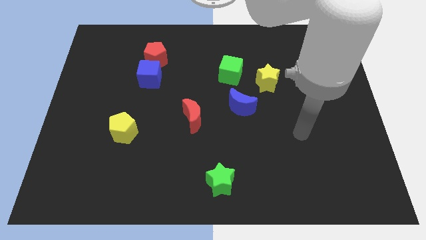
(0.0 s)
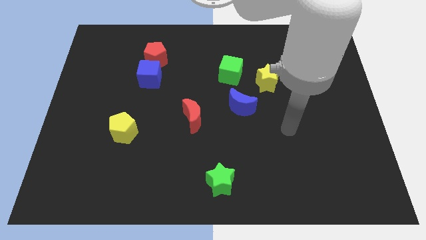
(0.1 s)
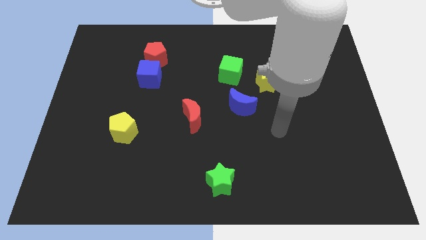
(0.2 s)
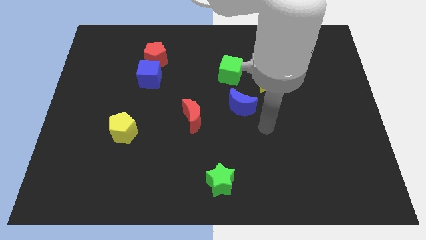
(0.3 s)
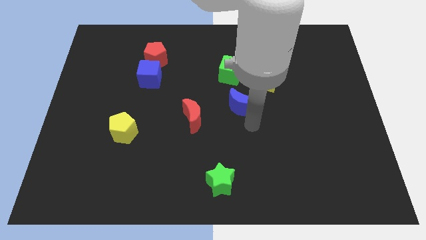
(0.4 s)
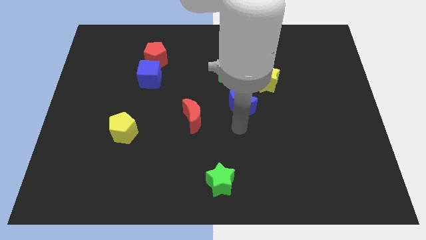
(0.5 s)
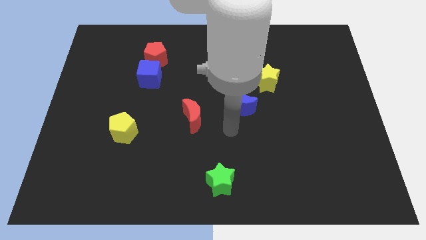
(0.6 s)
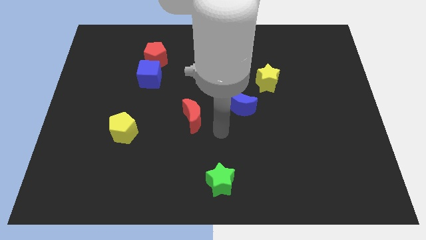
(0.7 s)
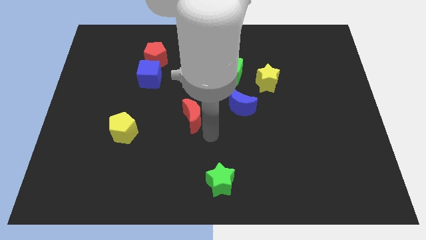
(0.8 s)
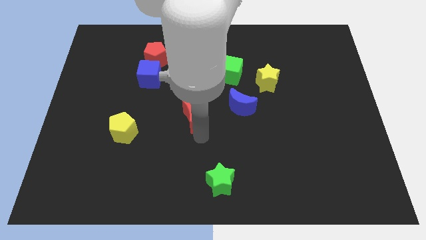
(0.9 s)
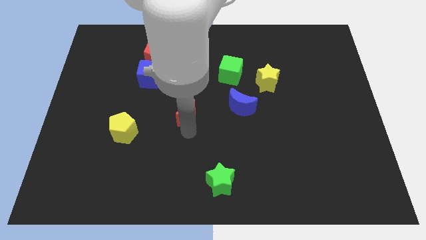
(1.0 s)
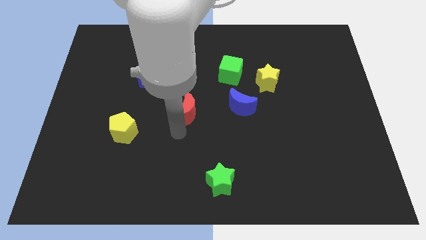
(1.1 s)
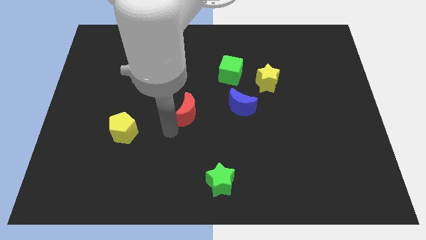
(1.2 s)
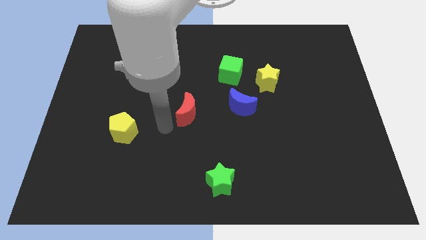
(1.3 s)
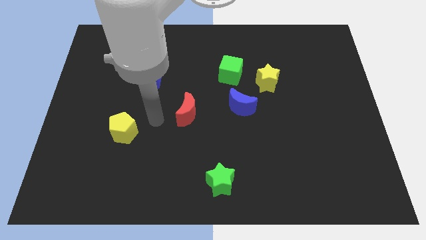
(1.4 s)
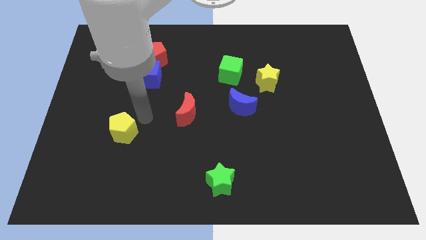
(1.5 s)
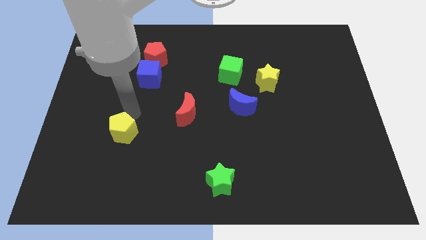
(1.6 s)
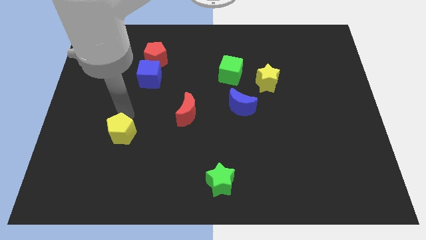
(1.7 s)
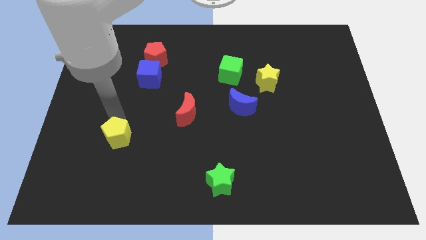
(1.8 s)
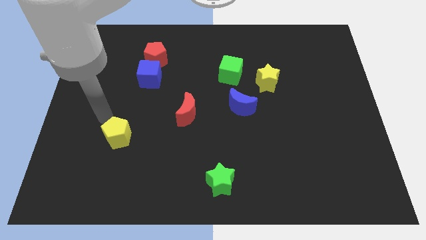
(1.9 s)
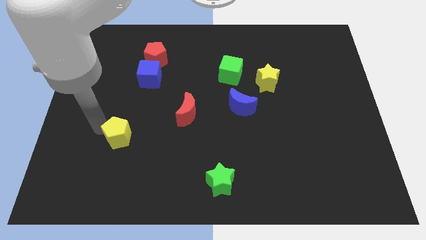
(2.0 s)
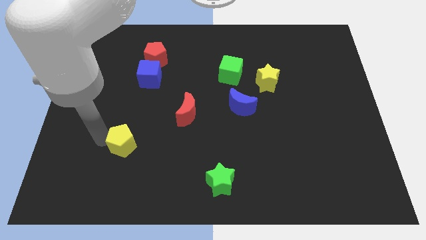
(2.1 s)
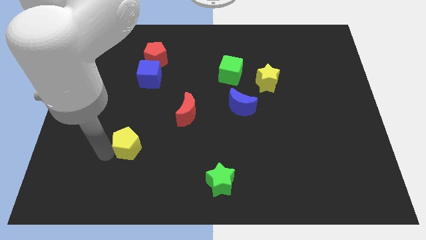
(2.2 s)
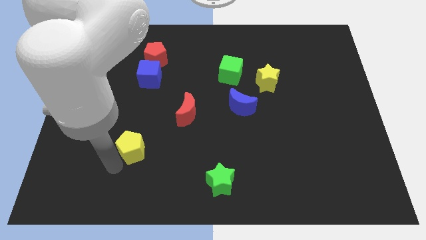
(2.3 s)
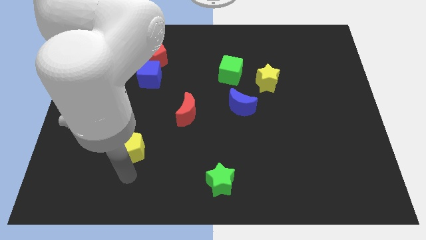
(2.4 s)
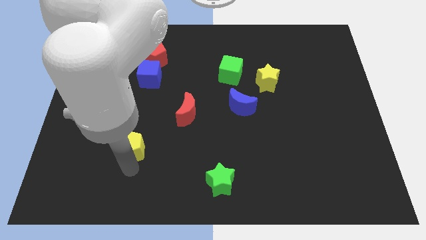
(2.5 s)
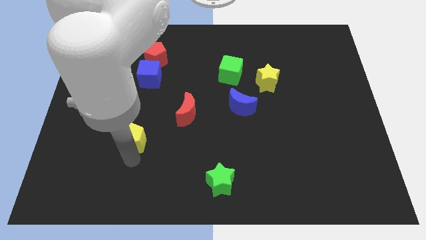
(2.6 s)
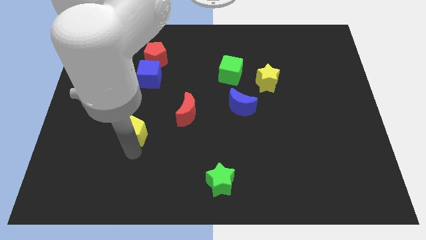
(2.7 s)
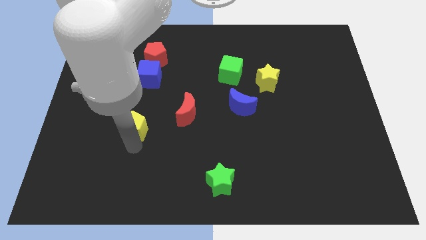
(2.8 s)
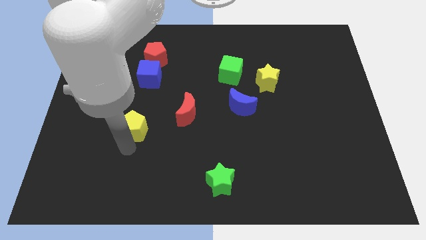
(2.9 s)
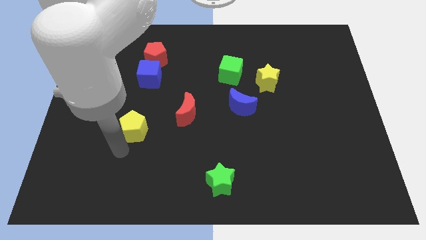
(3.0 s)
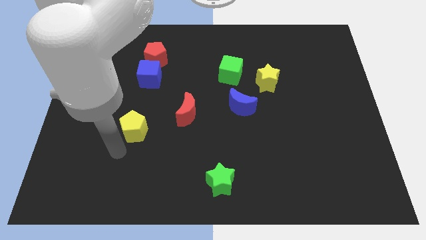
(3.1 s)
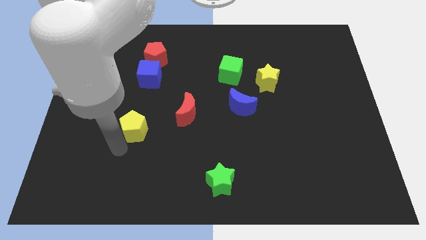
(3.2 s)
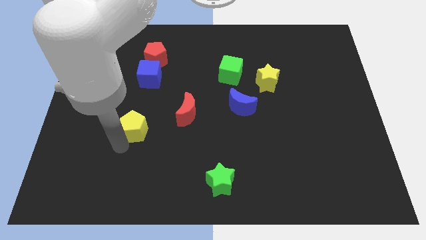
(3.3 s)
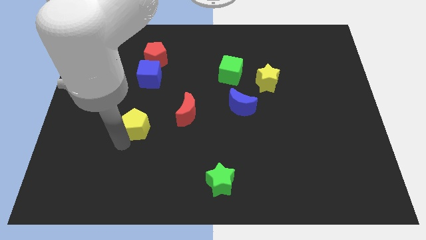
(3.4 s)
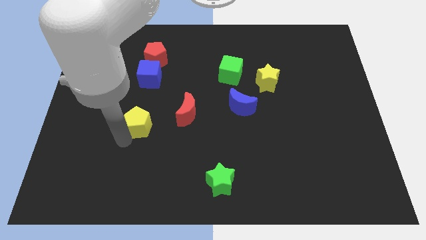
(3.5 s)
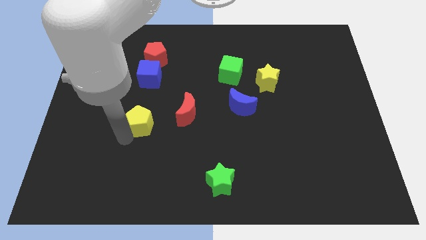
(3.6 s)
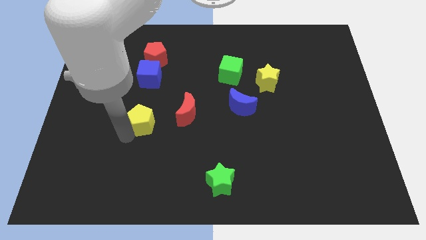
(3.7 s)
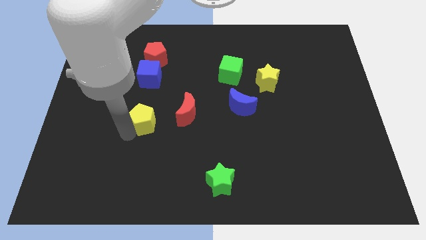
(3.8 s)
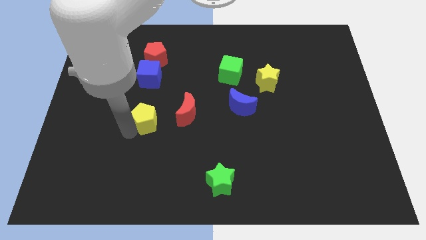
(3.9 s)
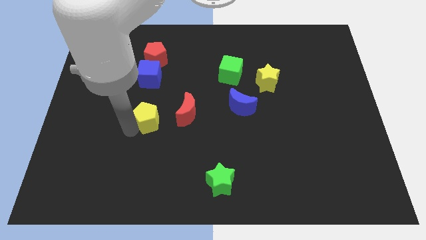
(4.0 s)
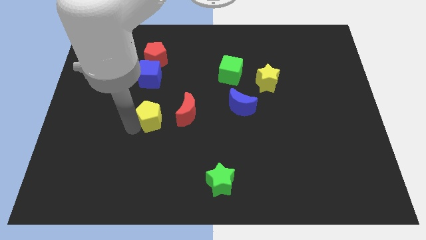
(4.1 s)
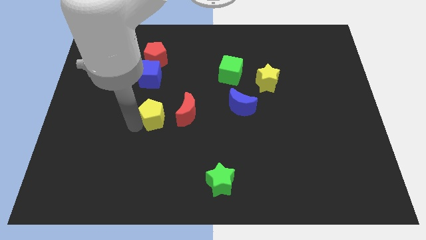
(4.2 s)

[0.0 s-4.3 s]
move the yellow pentagon slightly upwards and then right

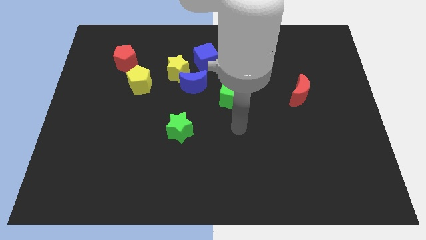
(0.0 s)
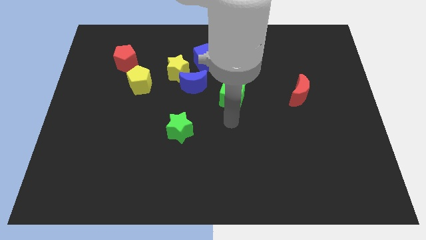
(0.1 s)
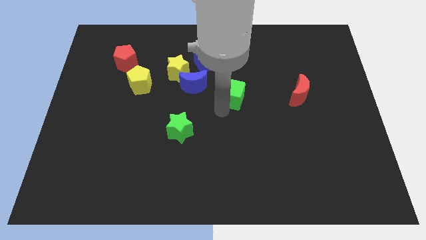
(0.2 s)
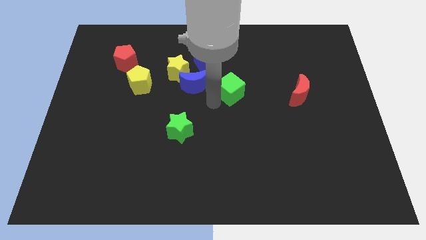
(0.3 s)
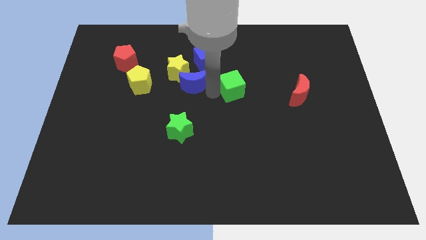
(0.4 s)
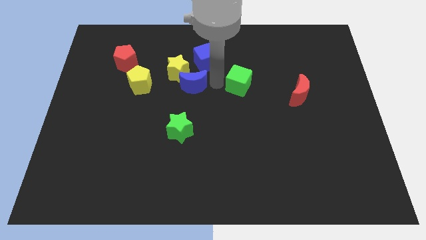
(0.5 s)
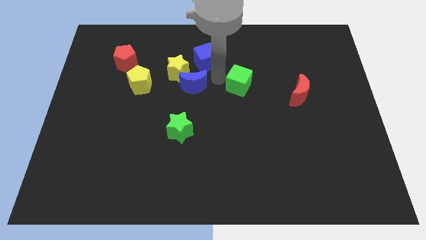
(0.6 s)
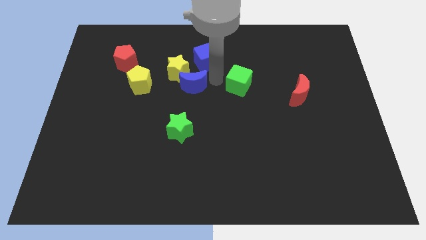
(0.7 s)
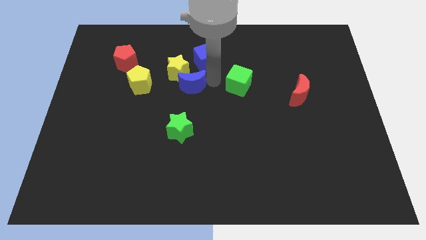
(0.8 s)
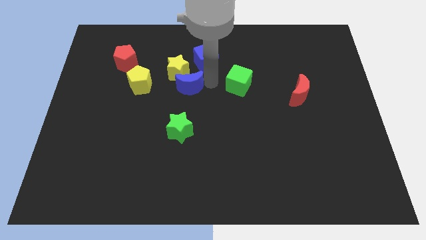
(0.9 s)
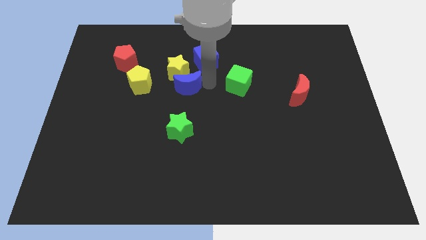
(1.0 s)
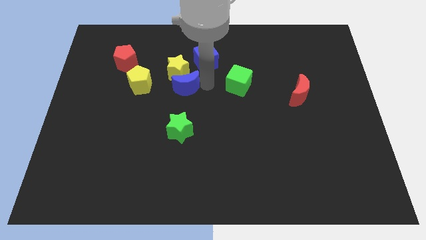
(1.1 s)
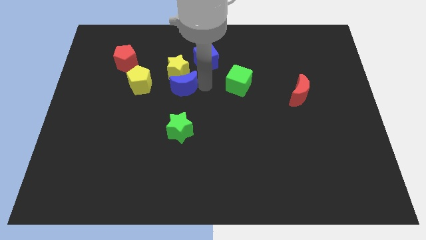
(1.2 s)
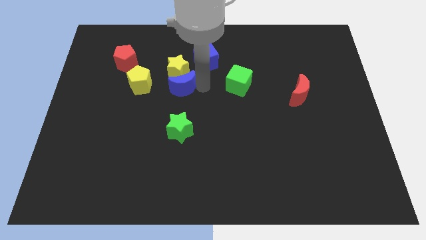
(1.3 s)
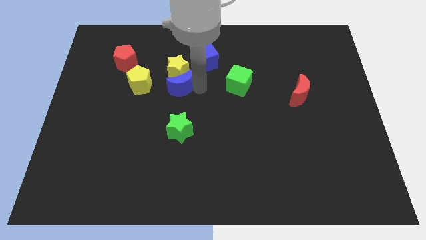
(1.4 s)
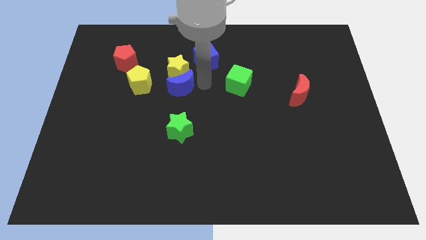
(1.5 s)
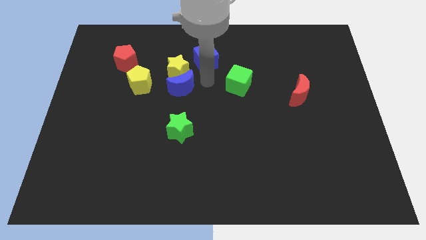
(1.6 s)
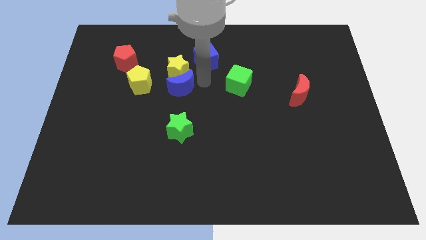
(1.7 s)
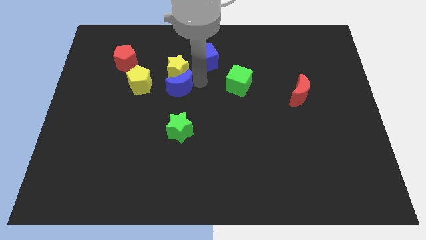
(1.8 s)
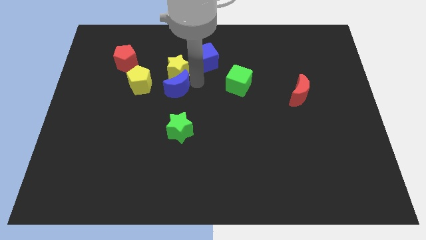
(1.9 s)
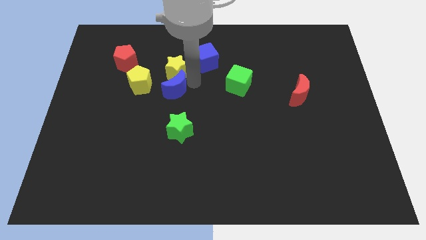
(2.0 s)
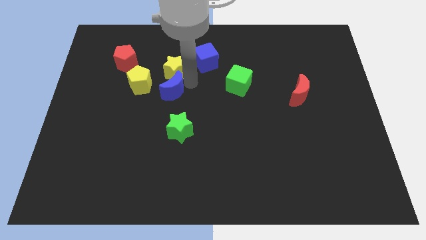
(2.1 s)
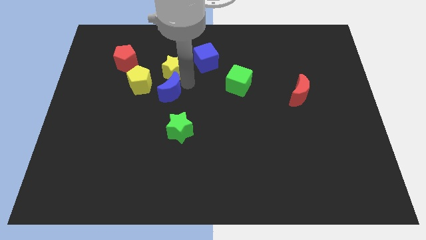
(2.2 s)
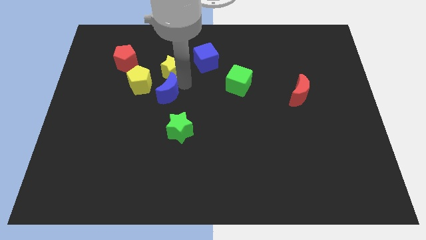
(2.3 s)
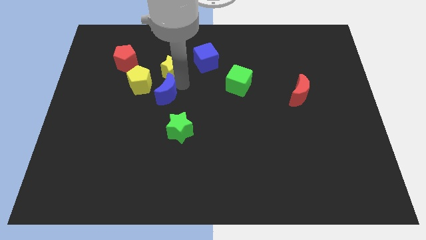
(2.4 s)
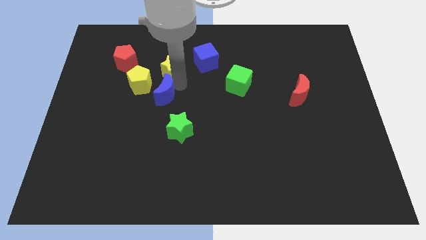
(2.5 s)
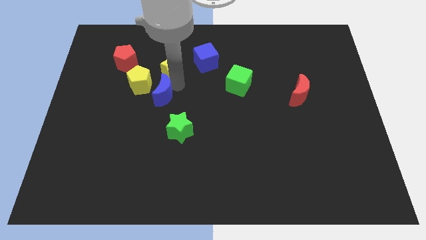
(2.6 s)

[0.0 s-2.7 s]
move the blue moon a little bit left

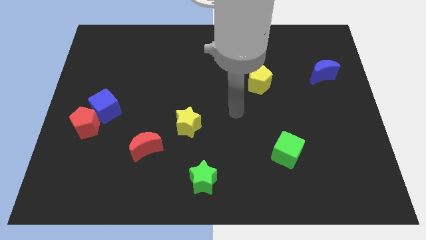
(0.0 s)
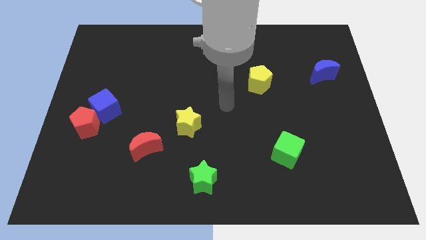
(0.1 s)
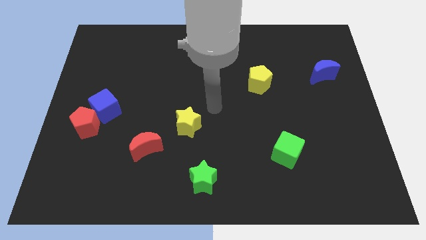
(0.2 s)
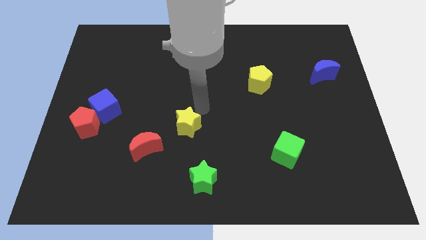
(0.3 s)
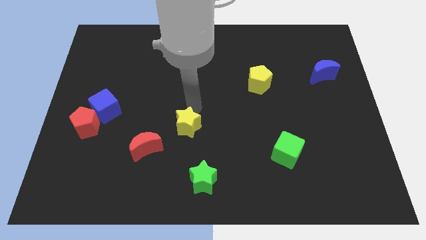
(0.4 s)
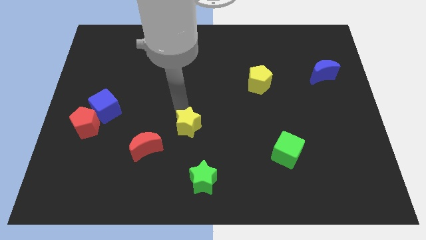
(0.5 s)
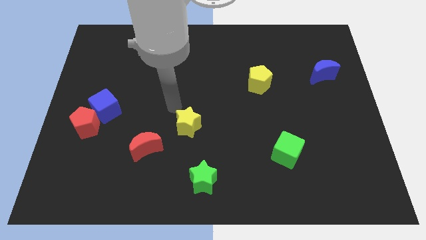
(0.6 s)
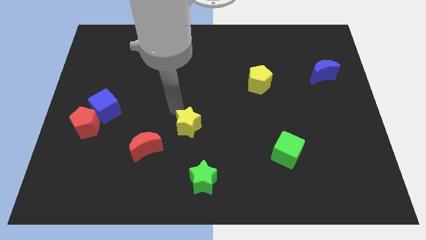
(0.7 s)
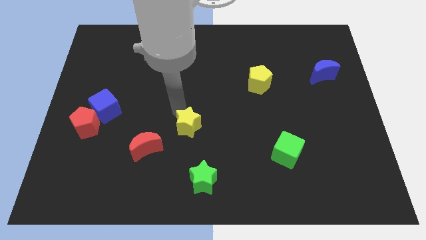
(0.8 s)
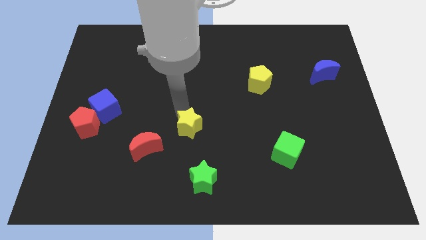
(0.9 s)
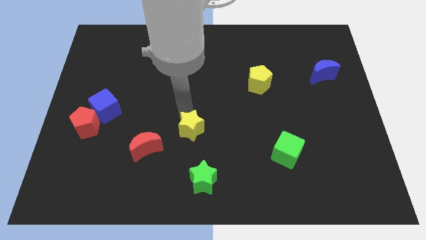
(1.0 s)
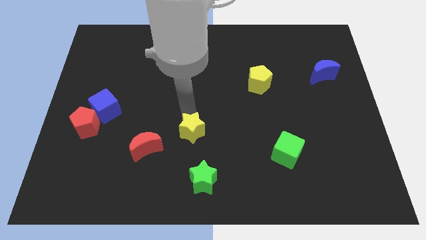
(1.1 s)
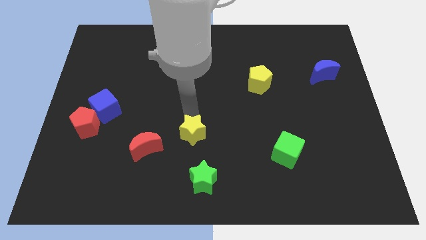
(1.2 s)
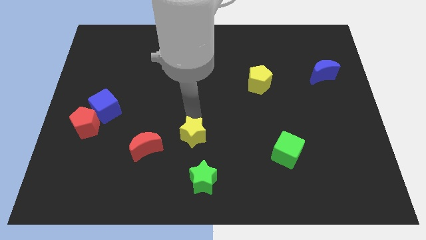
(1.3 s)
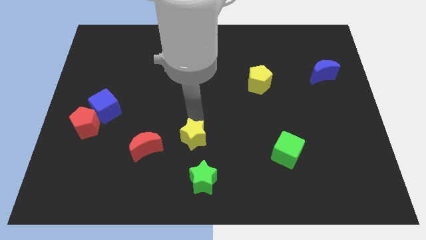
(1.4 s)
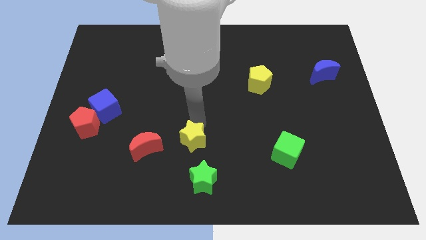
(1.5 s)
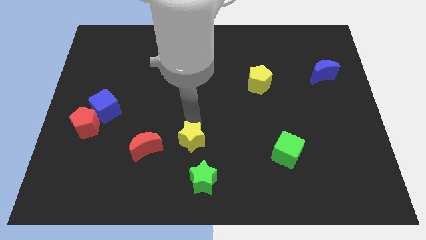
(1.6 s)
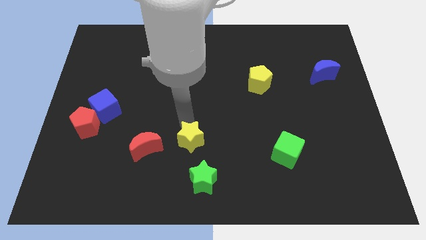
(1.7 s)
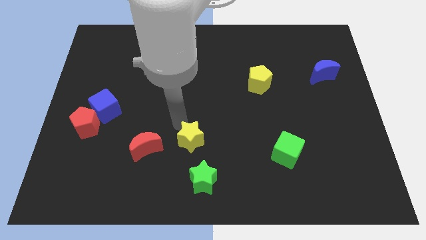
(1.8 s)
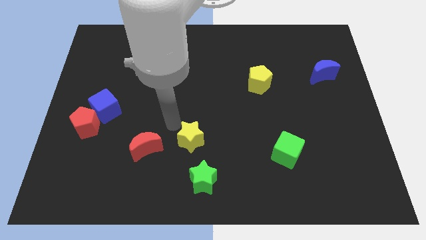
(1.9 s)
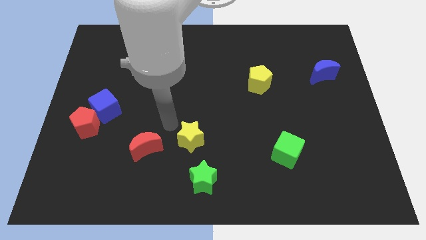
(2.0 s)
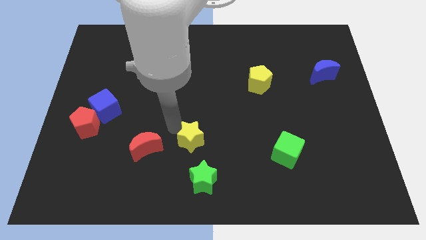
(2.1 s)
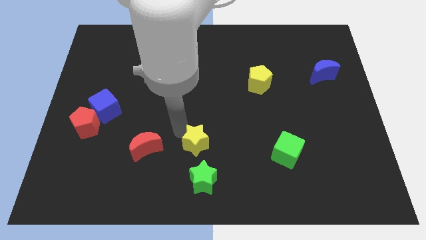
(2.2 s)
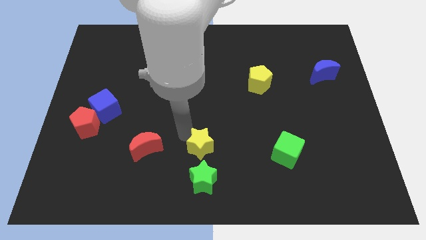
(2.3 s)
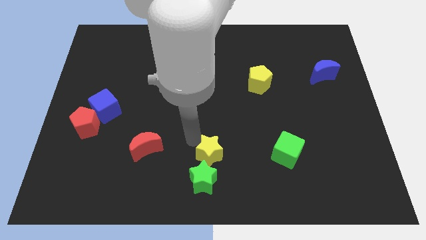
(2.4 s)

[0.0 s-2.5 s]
slightly move the yellow star down and then right
